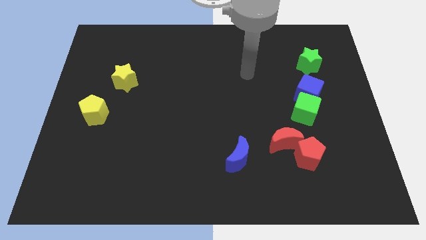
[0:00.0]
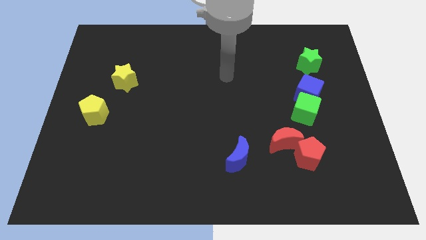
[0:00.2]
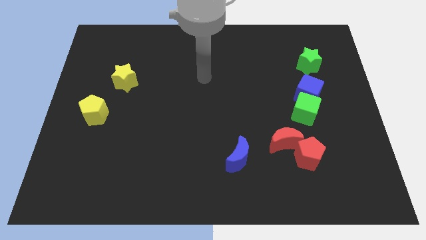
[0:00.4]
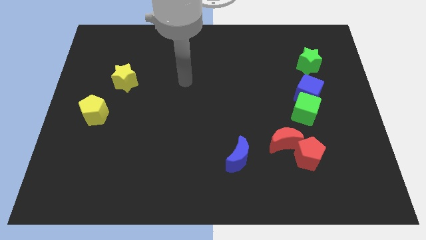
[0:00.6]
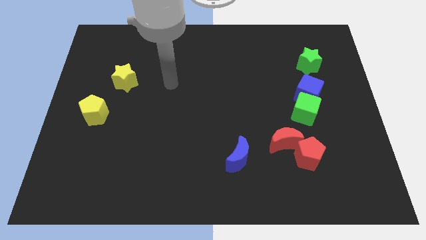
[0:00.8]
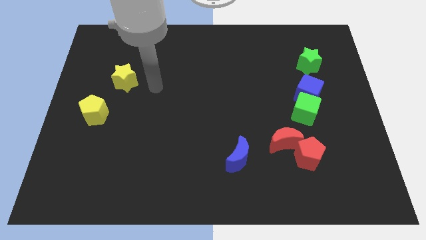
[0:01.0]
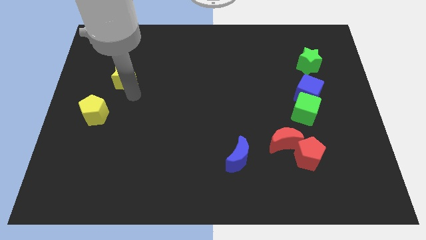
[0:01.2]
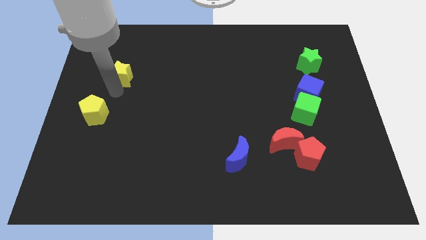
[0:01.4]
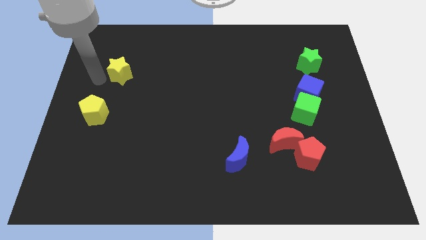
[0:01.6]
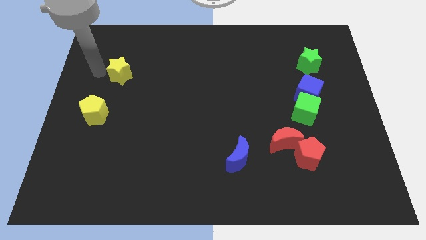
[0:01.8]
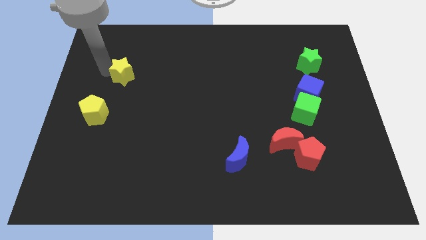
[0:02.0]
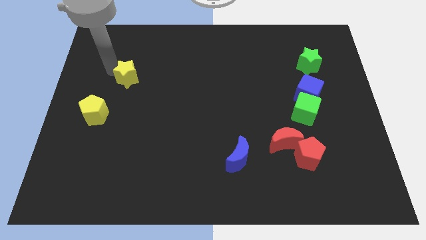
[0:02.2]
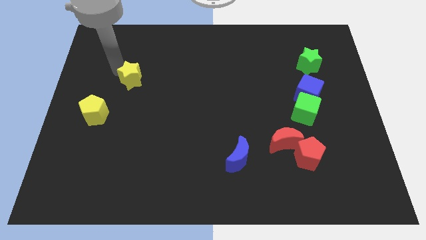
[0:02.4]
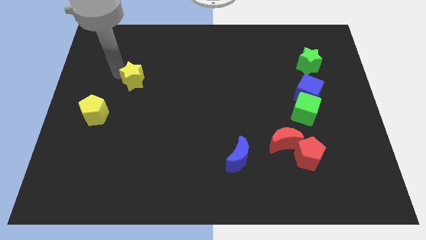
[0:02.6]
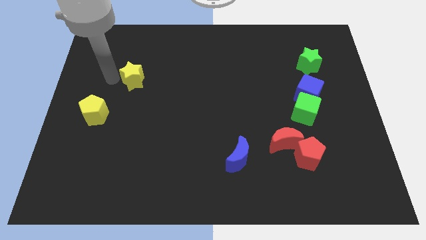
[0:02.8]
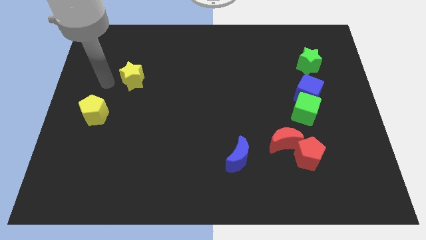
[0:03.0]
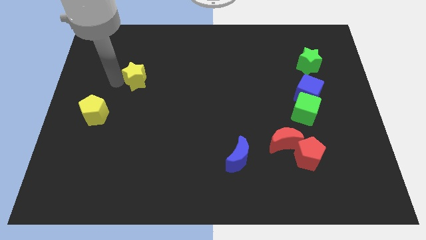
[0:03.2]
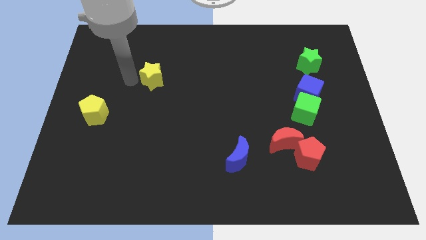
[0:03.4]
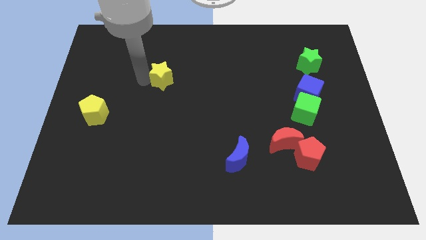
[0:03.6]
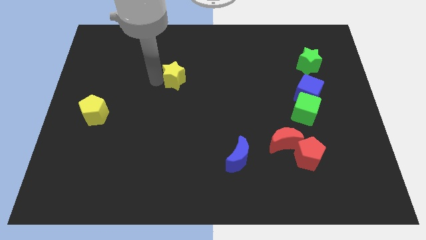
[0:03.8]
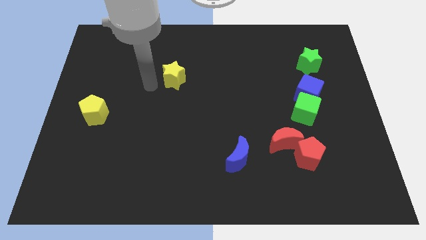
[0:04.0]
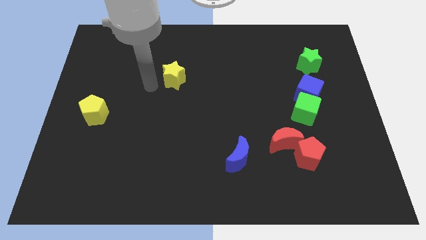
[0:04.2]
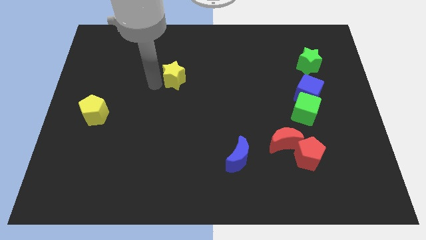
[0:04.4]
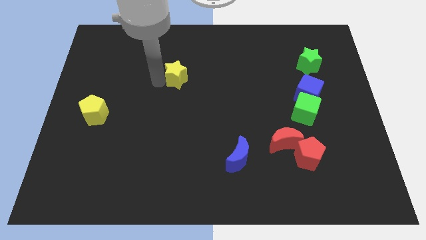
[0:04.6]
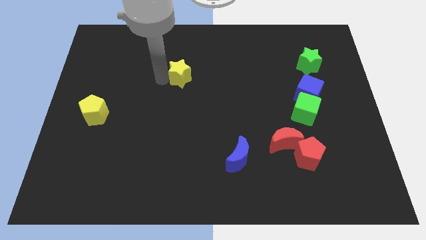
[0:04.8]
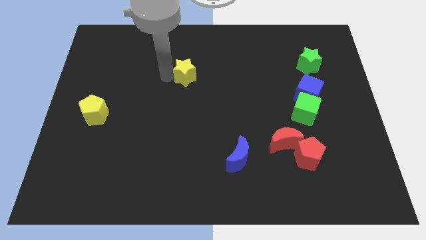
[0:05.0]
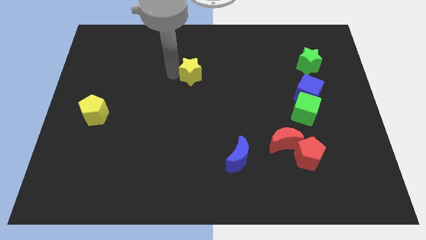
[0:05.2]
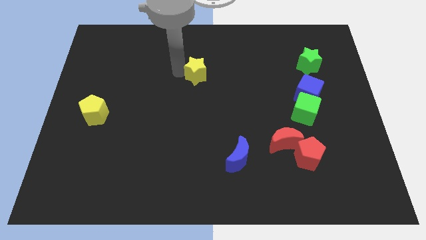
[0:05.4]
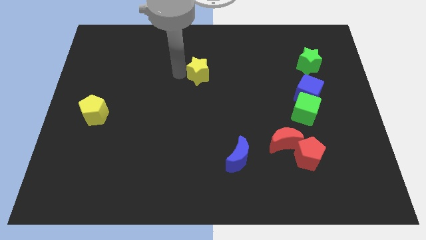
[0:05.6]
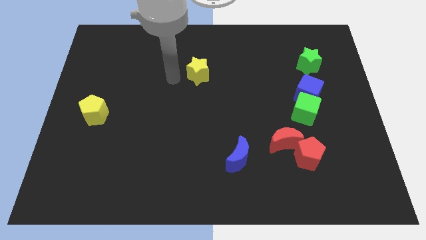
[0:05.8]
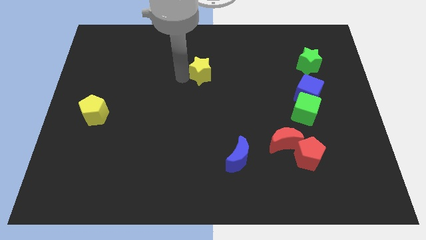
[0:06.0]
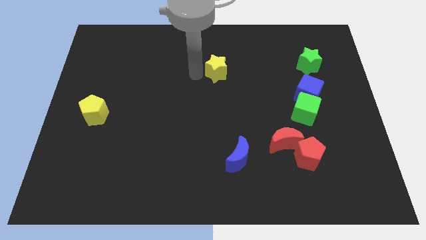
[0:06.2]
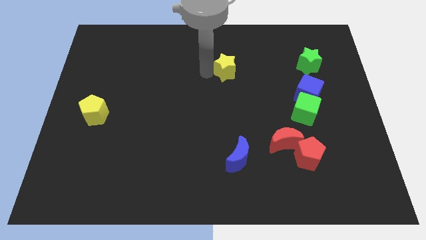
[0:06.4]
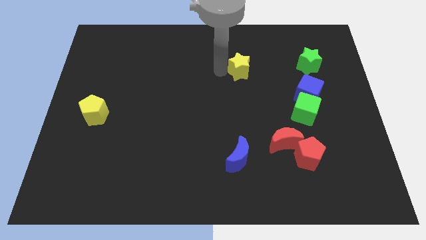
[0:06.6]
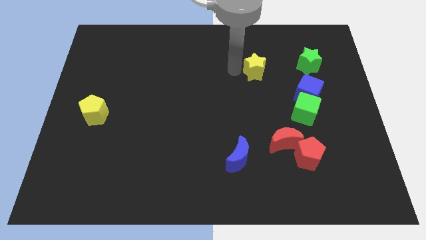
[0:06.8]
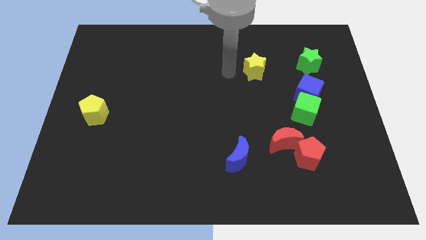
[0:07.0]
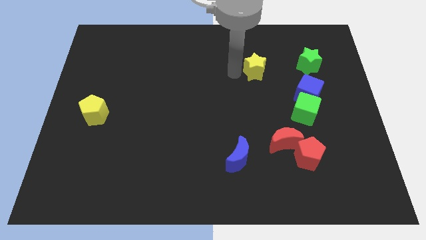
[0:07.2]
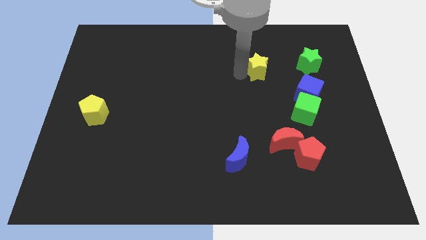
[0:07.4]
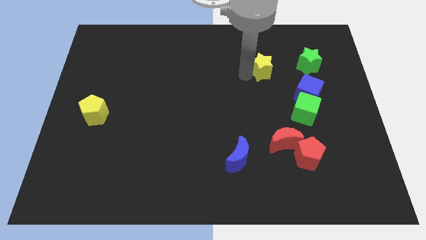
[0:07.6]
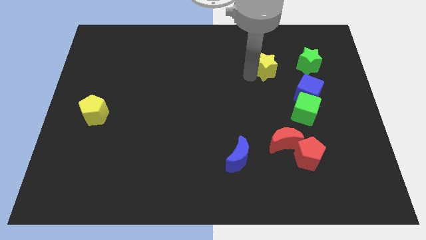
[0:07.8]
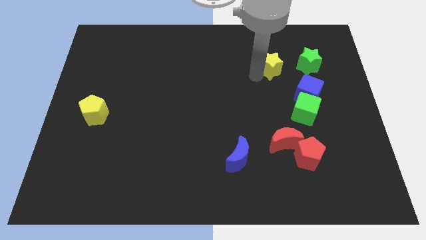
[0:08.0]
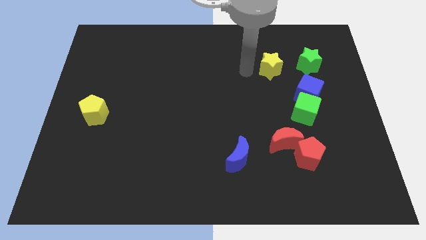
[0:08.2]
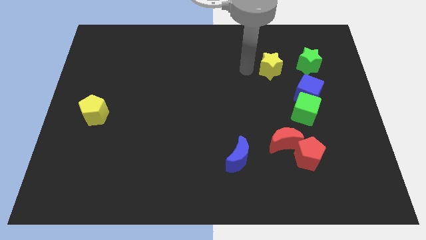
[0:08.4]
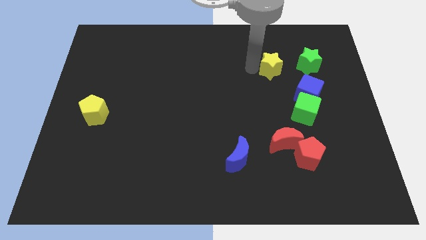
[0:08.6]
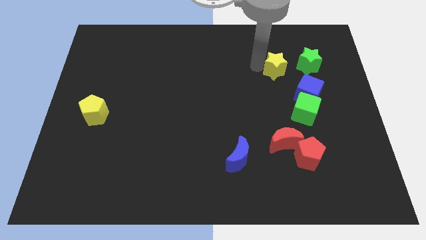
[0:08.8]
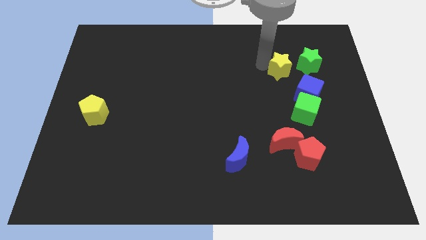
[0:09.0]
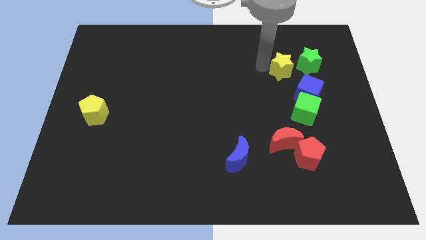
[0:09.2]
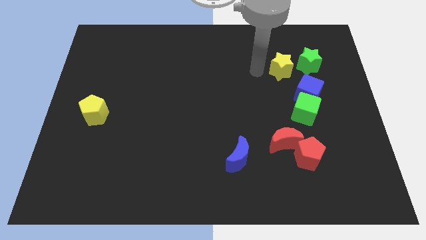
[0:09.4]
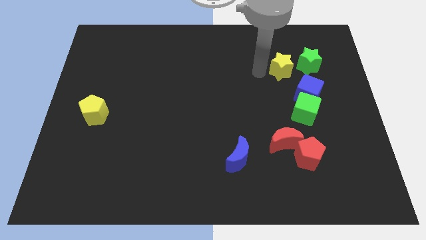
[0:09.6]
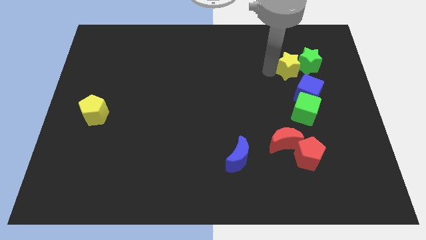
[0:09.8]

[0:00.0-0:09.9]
push the yellow star next to the green star

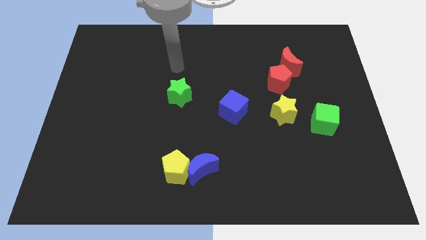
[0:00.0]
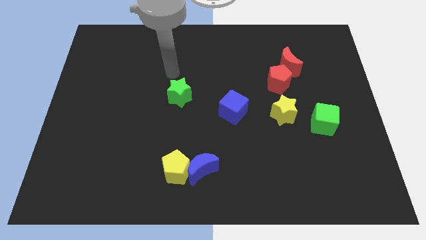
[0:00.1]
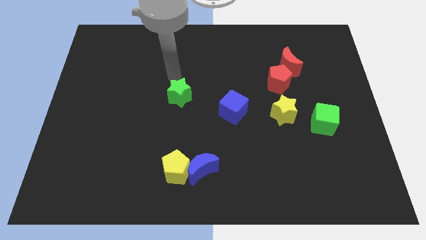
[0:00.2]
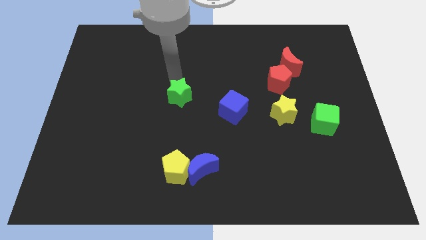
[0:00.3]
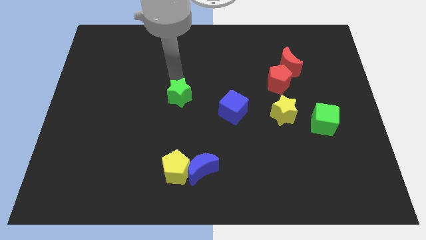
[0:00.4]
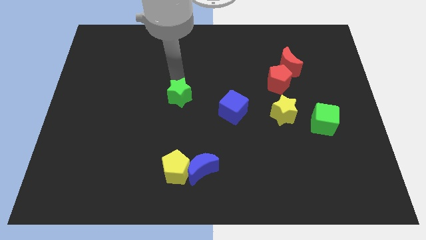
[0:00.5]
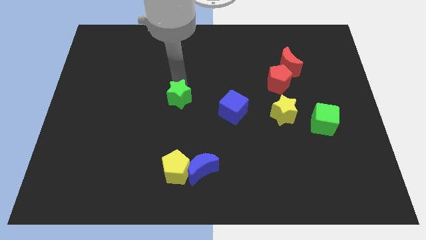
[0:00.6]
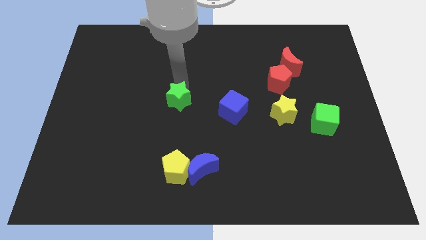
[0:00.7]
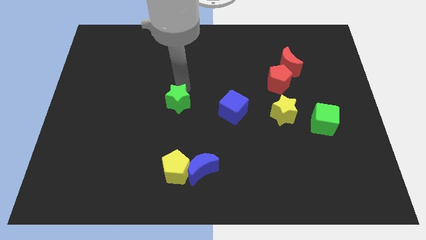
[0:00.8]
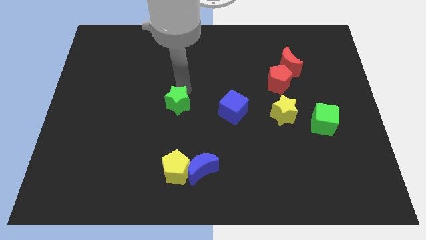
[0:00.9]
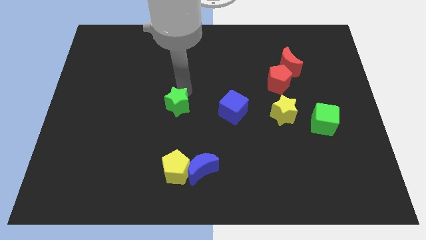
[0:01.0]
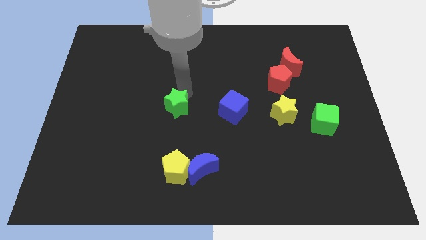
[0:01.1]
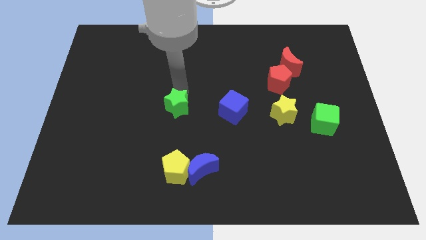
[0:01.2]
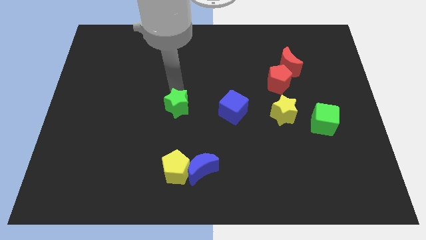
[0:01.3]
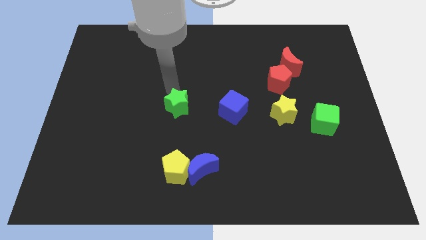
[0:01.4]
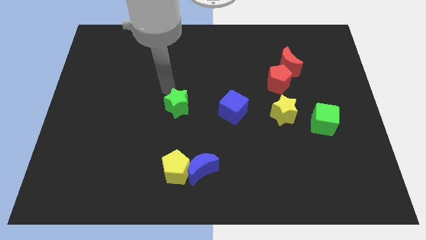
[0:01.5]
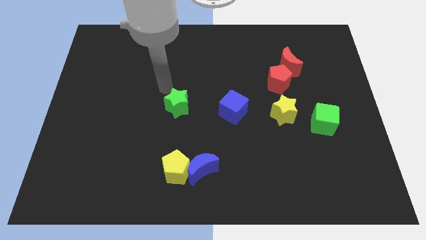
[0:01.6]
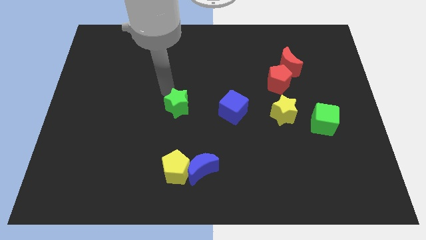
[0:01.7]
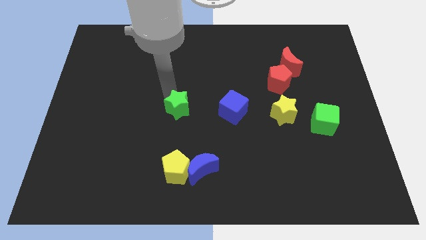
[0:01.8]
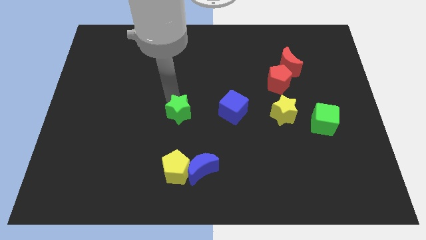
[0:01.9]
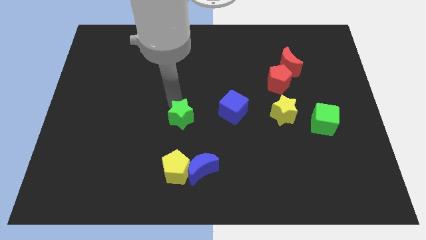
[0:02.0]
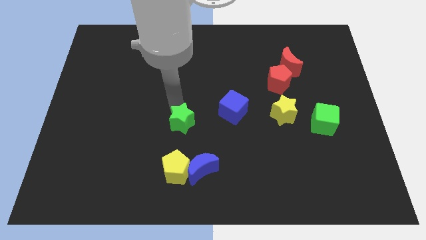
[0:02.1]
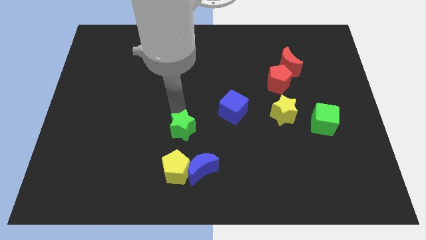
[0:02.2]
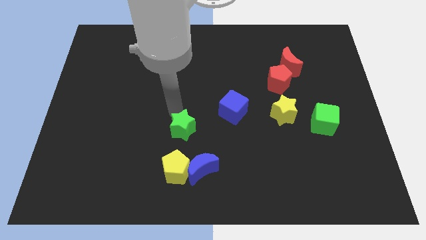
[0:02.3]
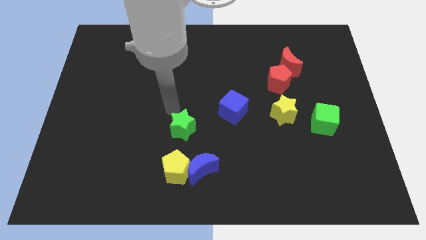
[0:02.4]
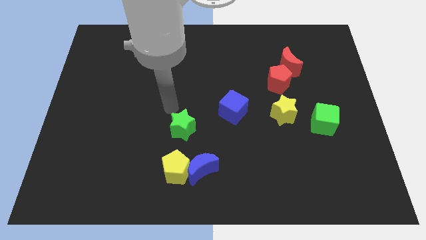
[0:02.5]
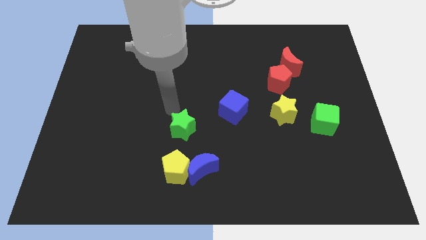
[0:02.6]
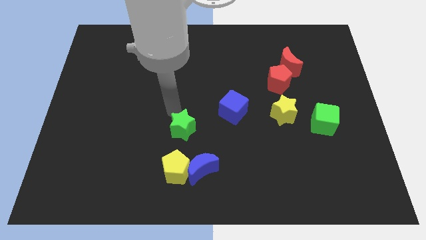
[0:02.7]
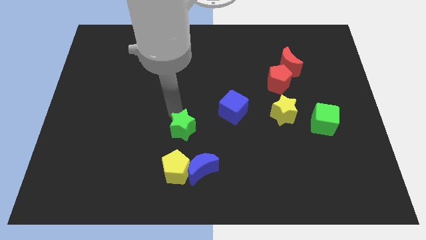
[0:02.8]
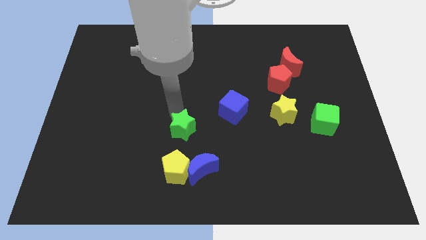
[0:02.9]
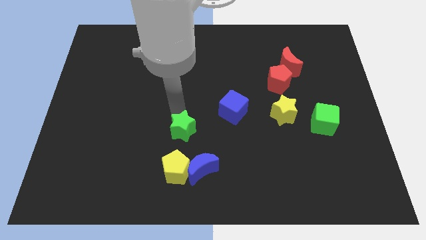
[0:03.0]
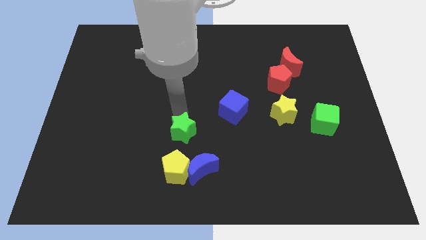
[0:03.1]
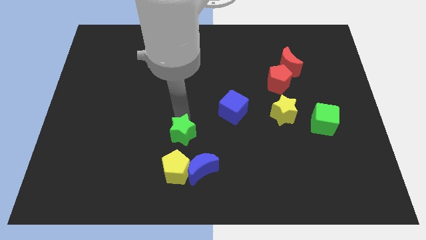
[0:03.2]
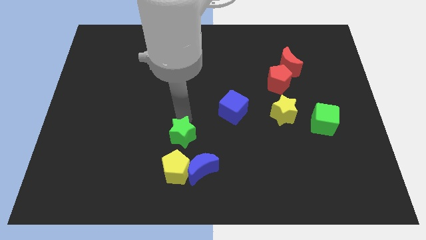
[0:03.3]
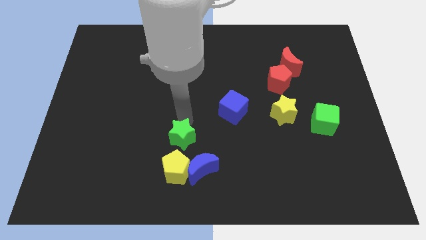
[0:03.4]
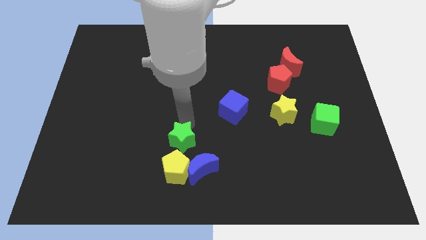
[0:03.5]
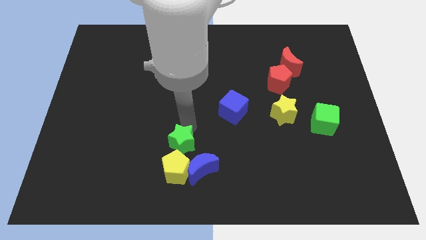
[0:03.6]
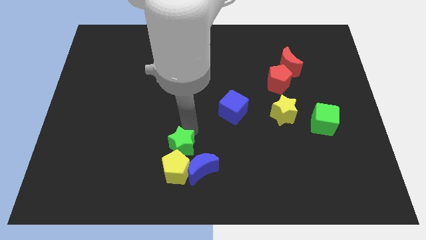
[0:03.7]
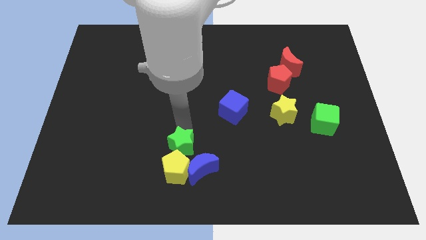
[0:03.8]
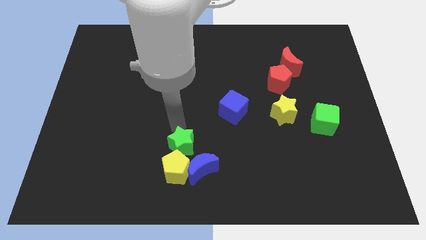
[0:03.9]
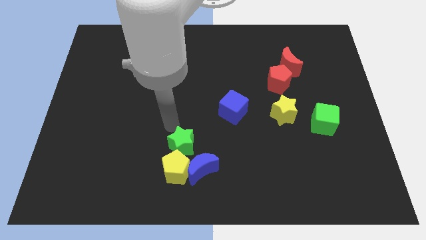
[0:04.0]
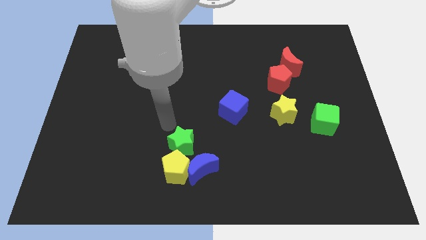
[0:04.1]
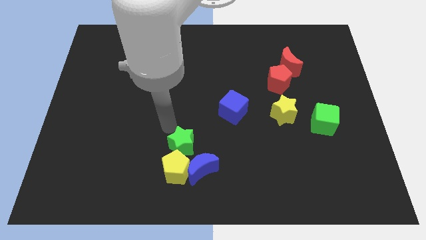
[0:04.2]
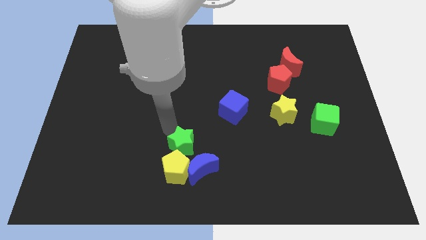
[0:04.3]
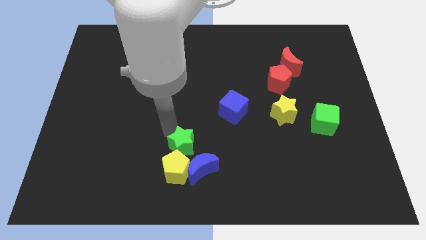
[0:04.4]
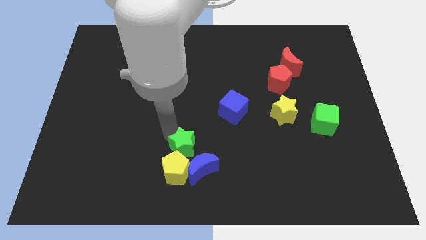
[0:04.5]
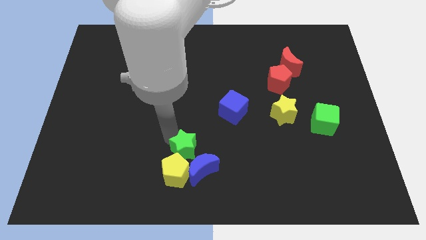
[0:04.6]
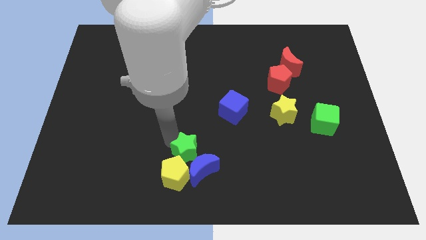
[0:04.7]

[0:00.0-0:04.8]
push the green star close to the blue moon
